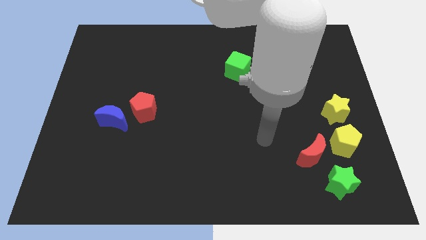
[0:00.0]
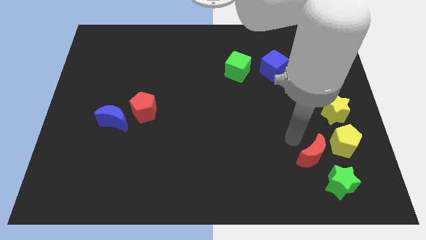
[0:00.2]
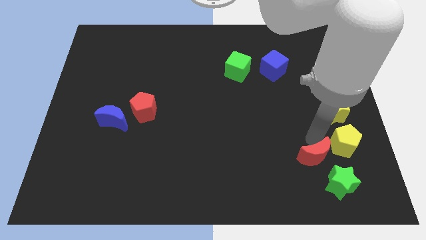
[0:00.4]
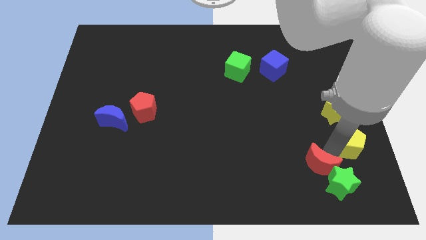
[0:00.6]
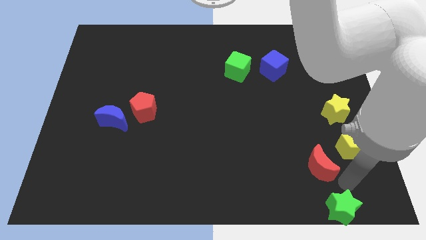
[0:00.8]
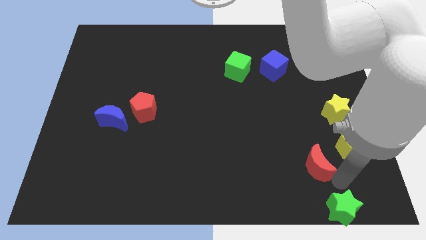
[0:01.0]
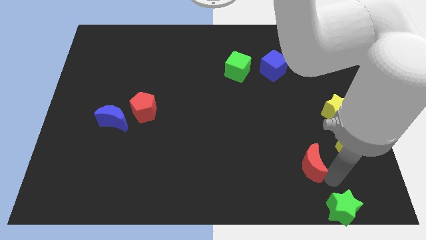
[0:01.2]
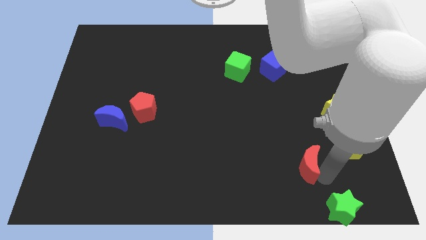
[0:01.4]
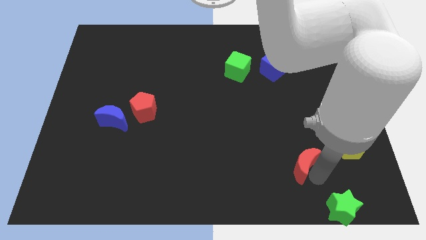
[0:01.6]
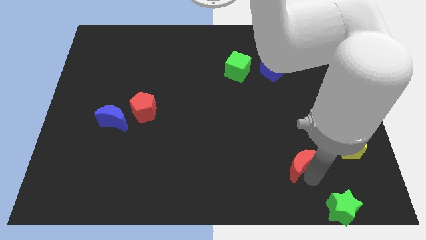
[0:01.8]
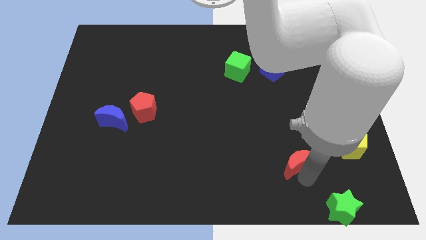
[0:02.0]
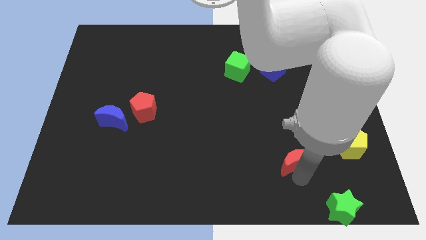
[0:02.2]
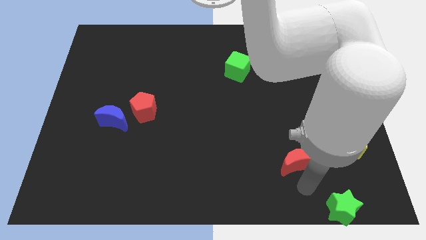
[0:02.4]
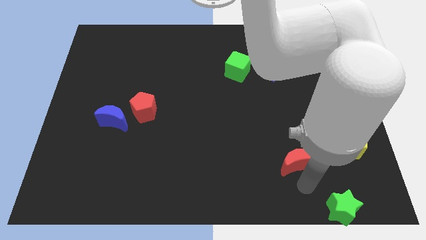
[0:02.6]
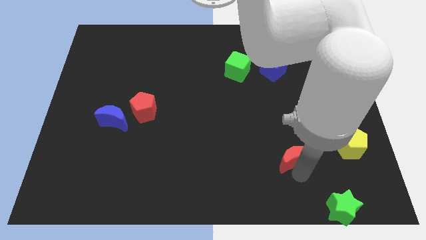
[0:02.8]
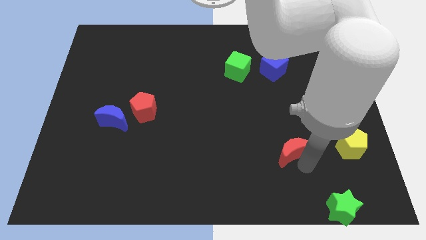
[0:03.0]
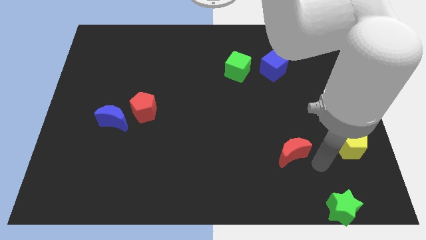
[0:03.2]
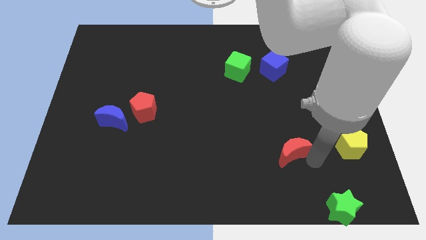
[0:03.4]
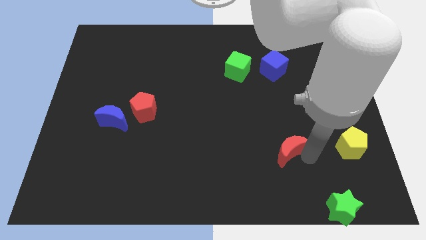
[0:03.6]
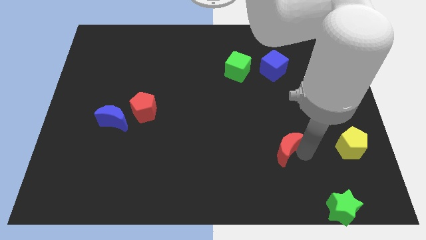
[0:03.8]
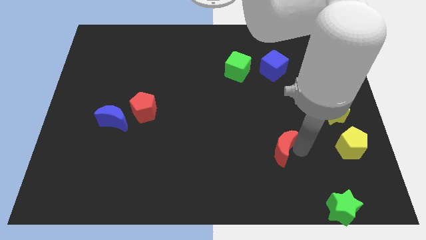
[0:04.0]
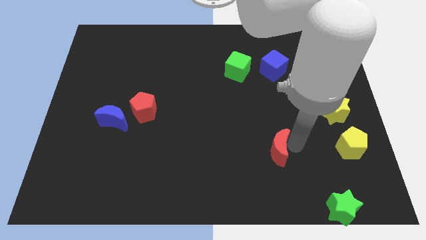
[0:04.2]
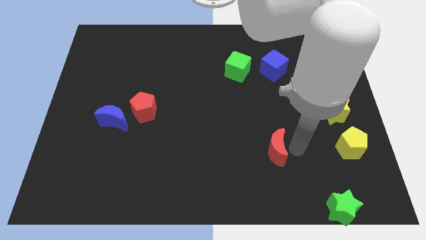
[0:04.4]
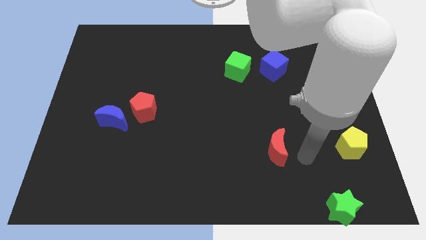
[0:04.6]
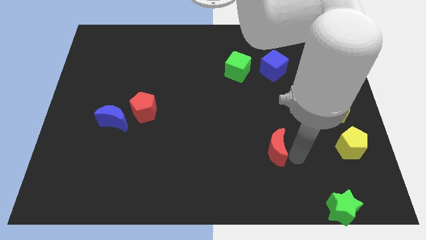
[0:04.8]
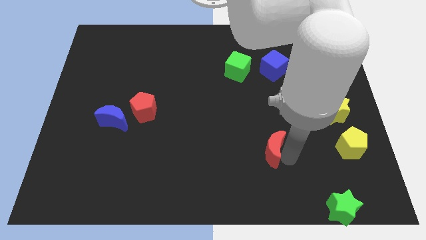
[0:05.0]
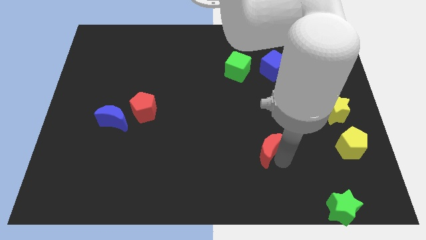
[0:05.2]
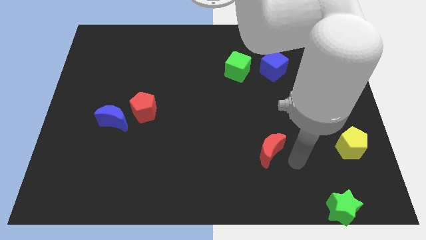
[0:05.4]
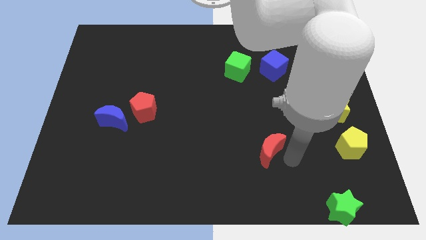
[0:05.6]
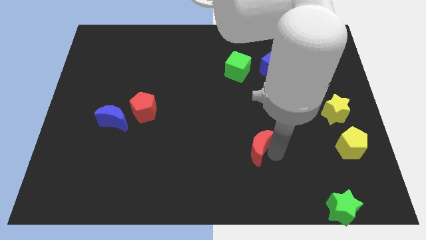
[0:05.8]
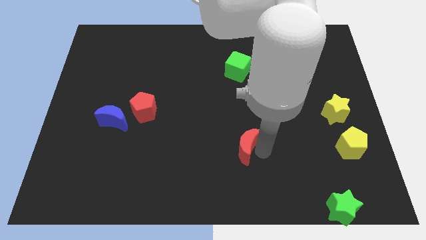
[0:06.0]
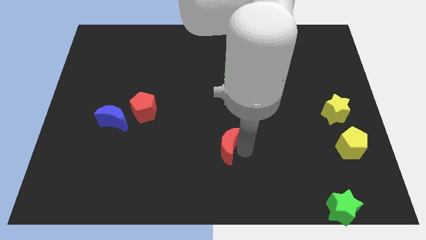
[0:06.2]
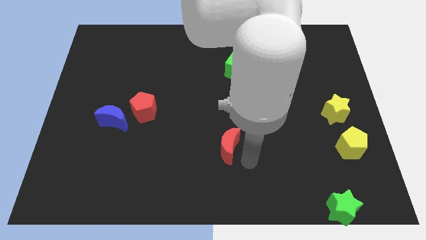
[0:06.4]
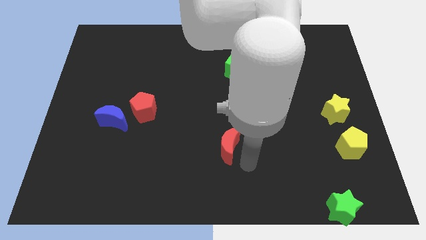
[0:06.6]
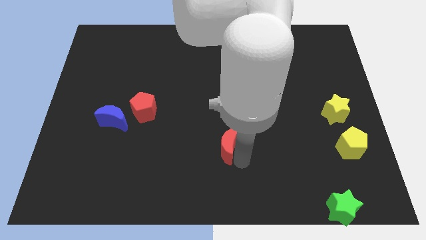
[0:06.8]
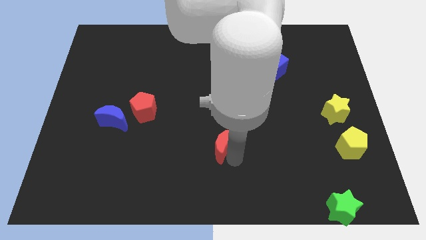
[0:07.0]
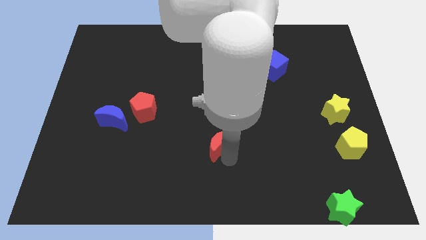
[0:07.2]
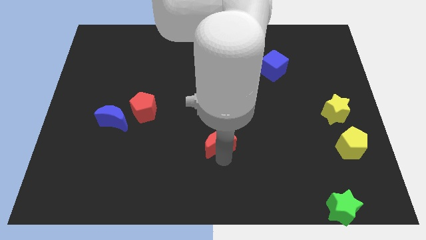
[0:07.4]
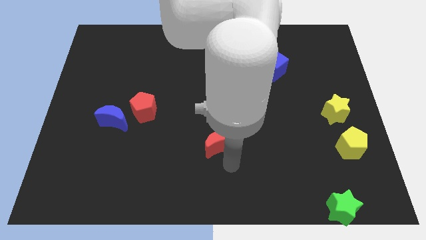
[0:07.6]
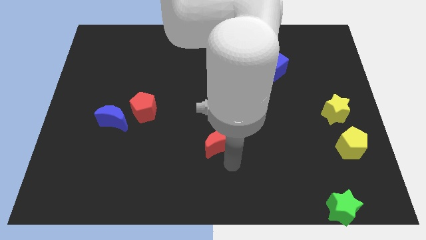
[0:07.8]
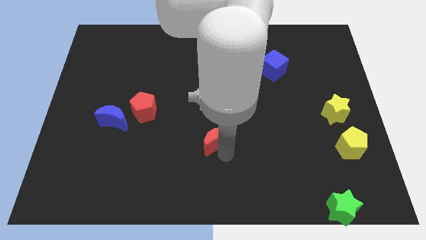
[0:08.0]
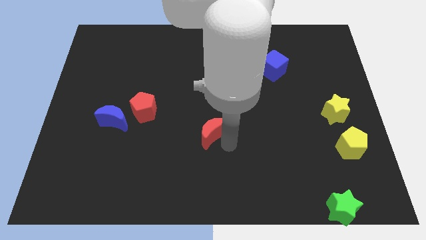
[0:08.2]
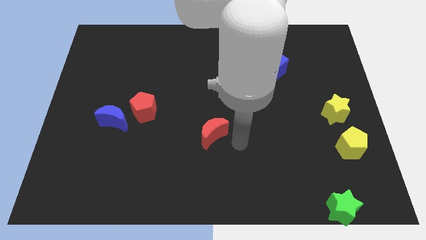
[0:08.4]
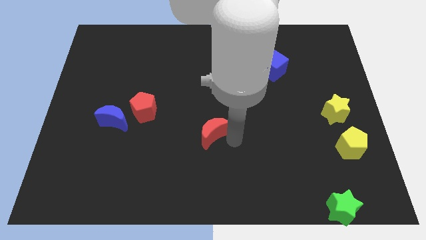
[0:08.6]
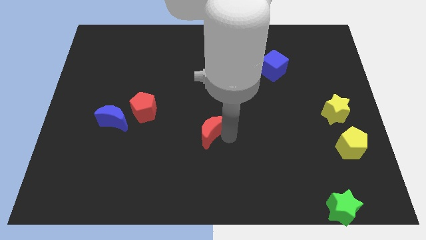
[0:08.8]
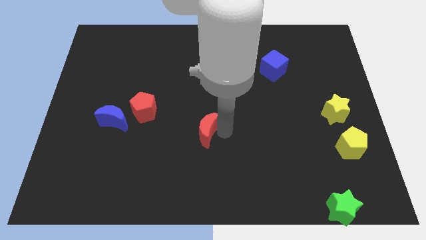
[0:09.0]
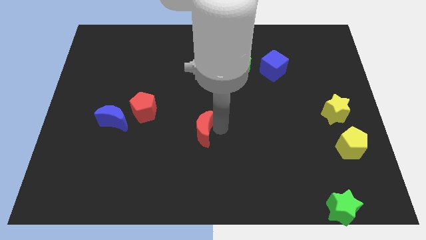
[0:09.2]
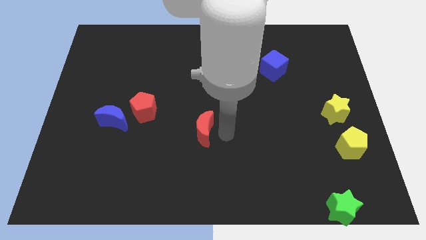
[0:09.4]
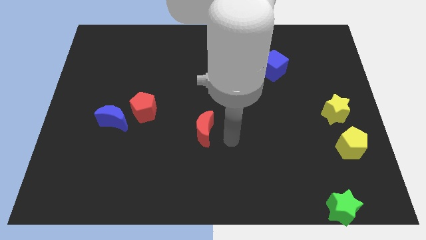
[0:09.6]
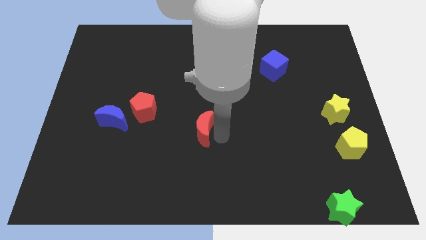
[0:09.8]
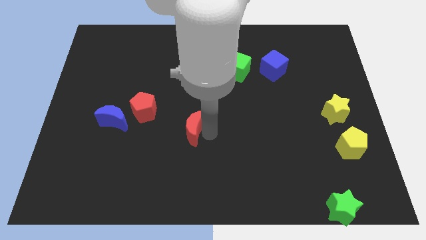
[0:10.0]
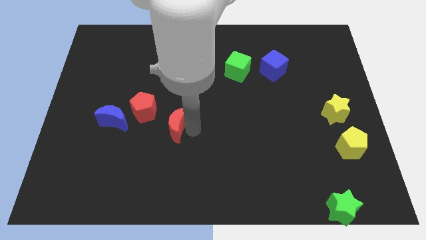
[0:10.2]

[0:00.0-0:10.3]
slide the red moon right of the blue moon

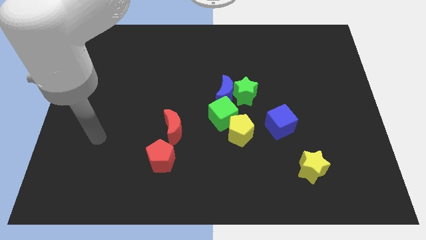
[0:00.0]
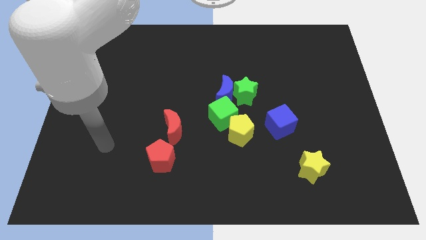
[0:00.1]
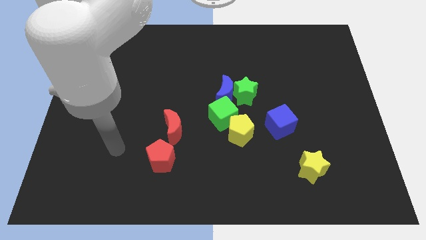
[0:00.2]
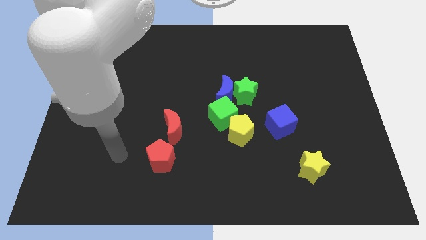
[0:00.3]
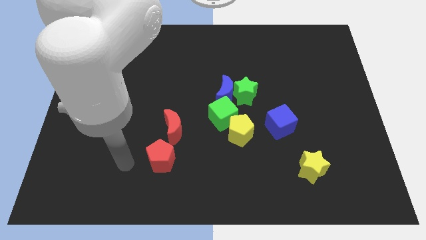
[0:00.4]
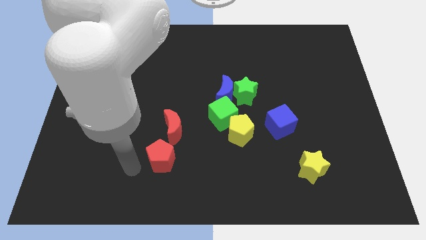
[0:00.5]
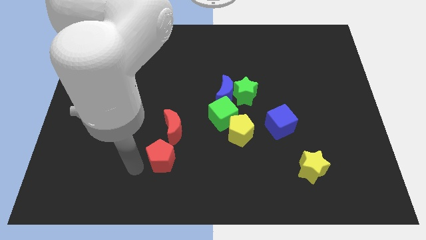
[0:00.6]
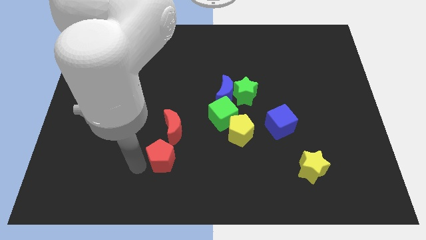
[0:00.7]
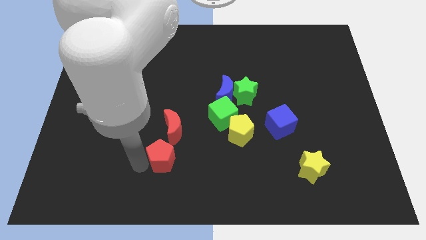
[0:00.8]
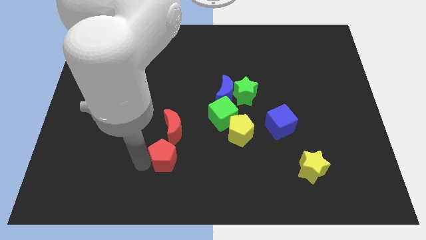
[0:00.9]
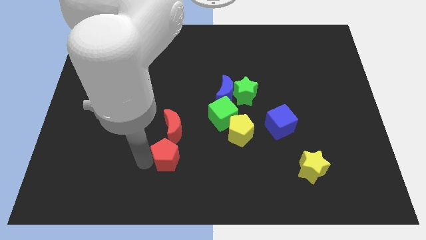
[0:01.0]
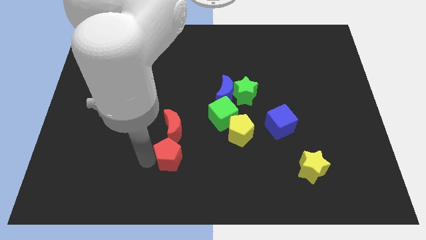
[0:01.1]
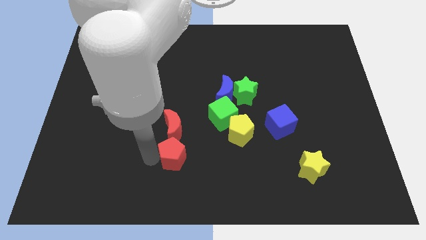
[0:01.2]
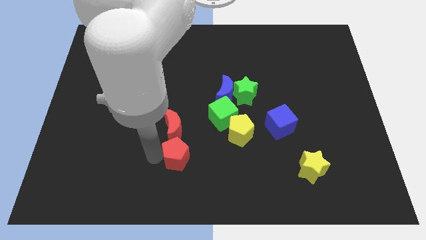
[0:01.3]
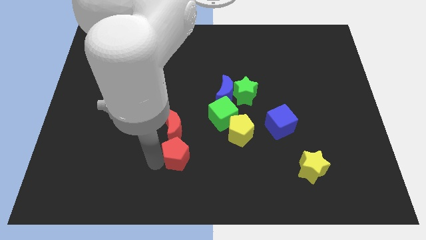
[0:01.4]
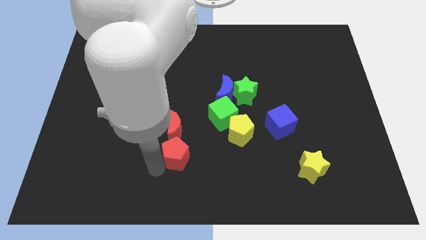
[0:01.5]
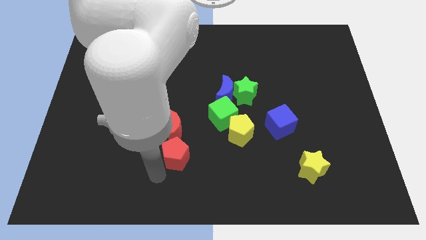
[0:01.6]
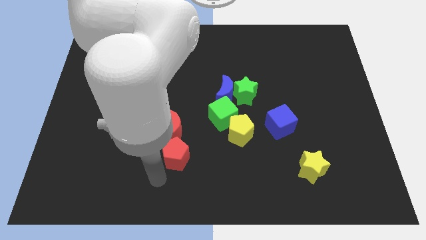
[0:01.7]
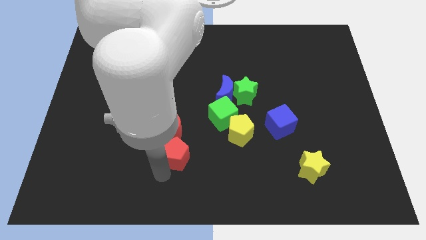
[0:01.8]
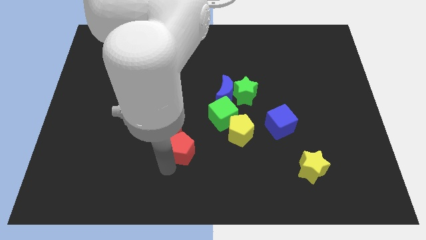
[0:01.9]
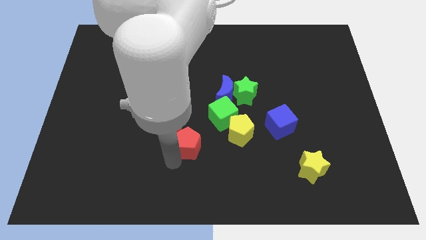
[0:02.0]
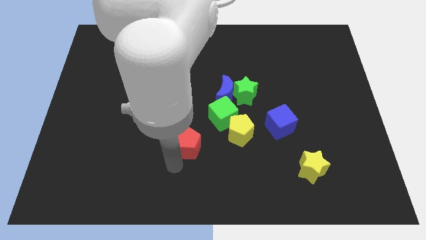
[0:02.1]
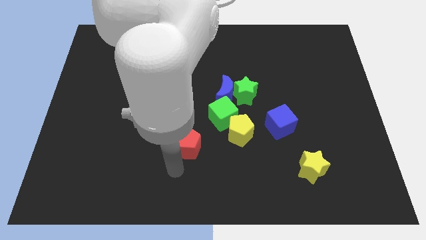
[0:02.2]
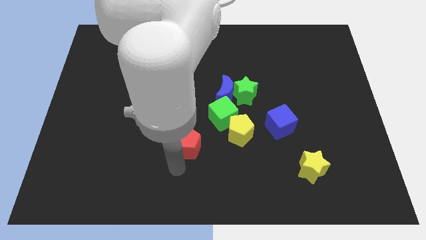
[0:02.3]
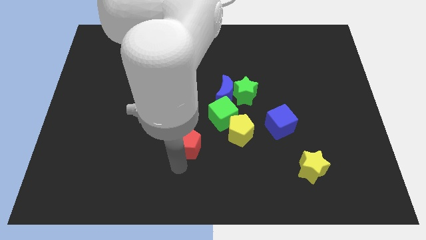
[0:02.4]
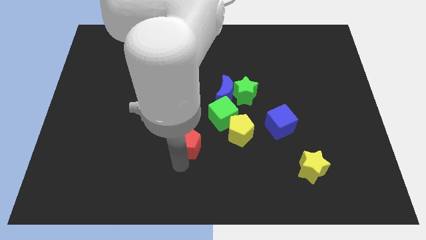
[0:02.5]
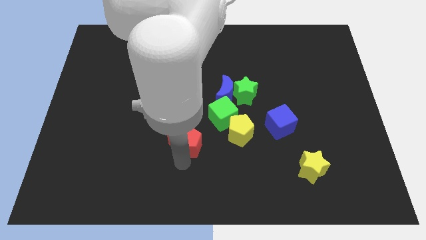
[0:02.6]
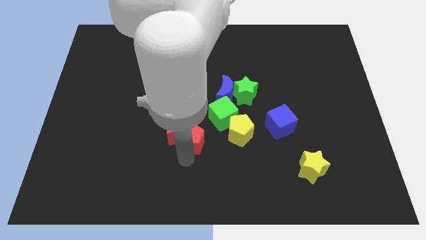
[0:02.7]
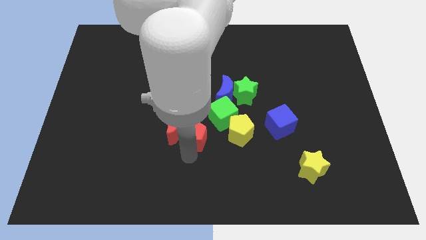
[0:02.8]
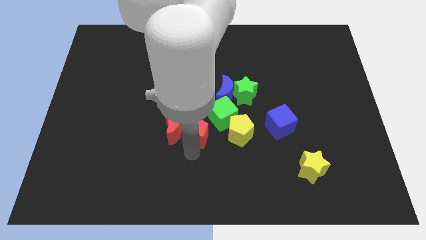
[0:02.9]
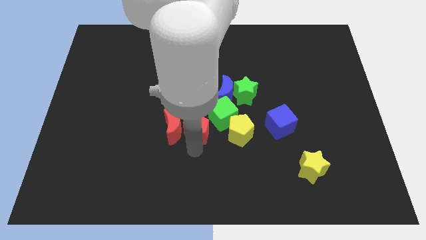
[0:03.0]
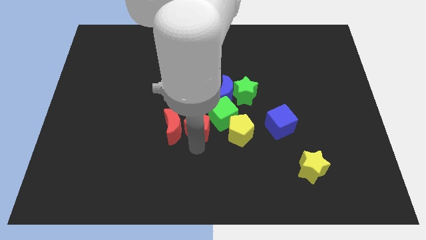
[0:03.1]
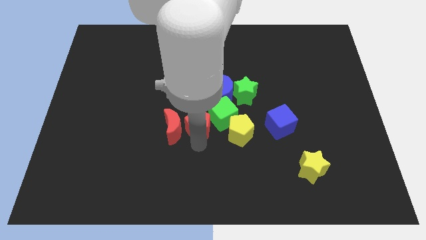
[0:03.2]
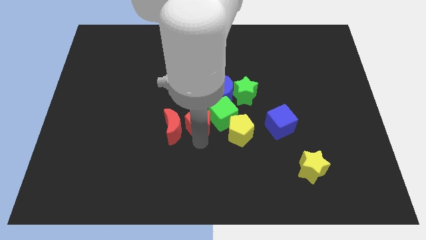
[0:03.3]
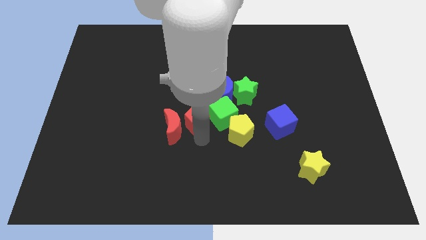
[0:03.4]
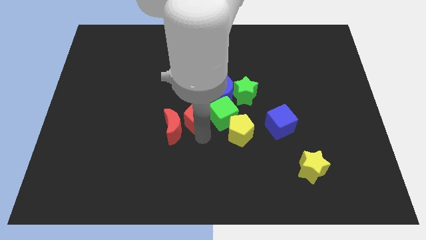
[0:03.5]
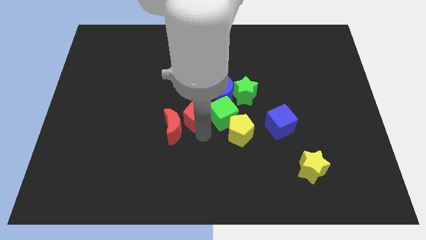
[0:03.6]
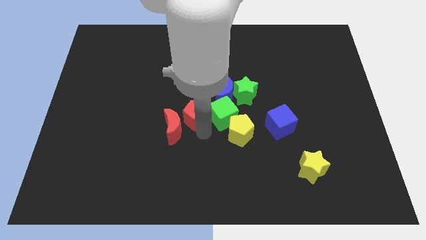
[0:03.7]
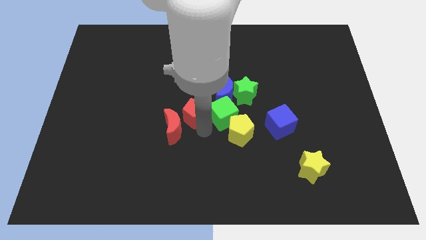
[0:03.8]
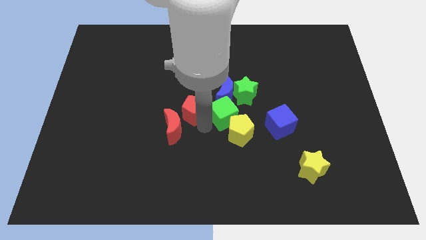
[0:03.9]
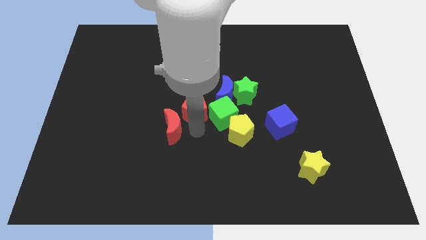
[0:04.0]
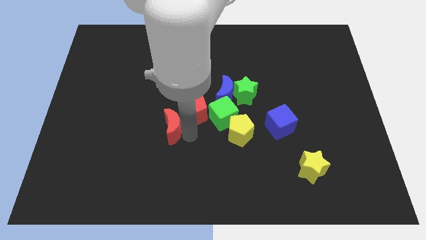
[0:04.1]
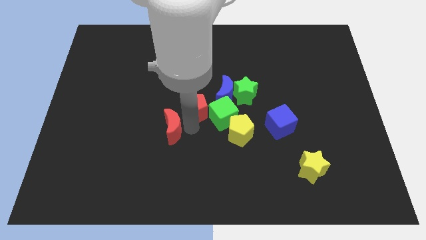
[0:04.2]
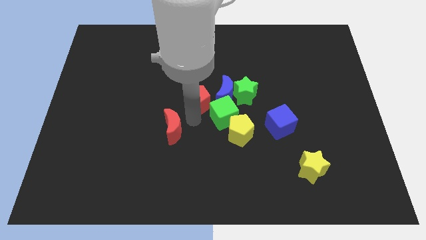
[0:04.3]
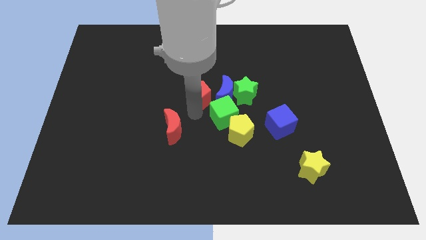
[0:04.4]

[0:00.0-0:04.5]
slide the red pentagon diagonally up and to the left of the blue moon
